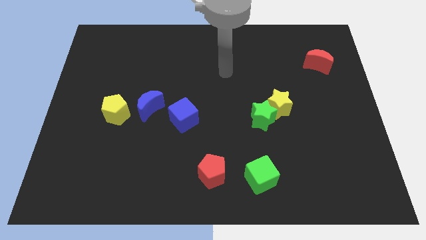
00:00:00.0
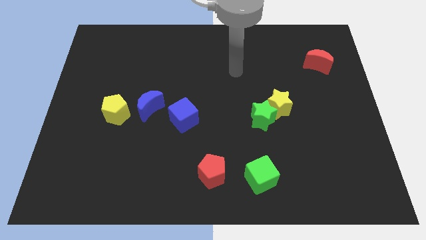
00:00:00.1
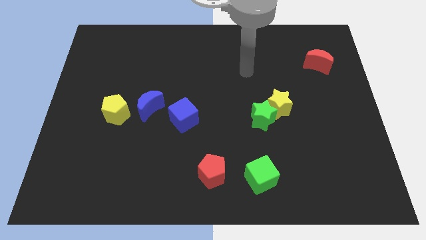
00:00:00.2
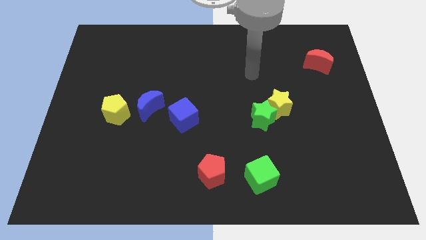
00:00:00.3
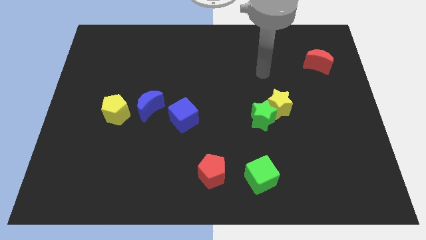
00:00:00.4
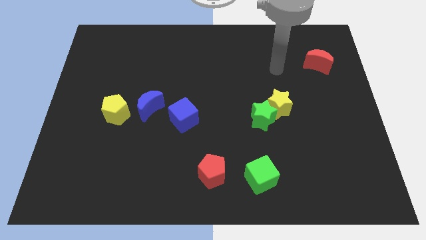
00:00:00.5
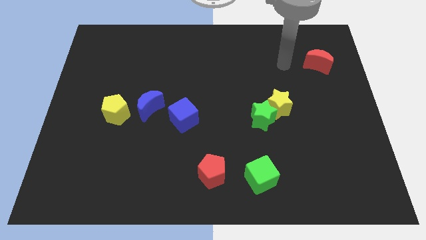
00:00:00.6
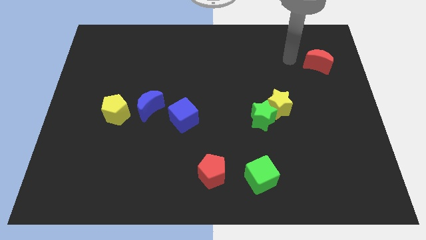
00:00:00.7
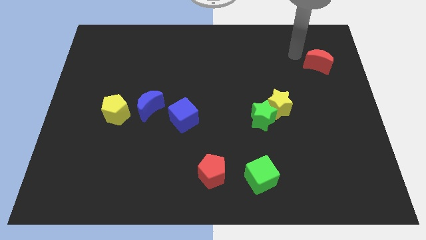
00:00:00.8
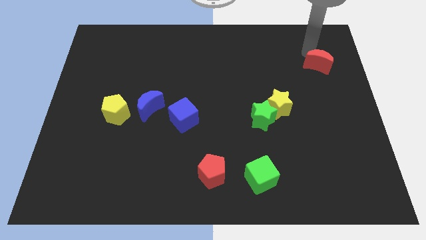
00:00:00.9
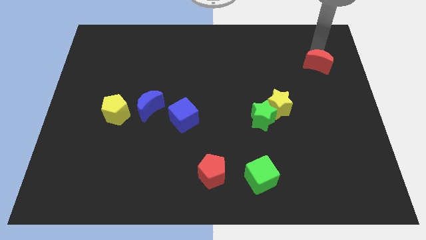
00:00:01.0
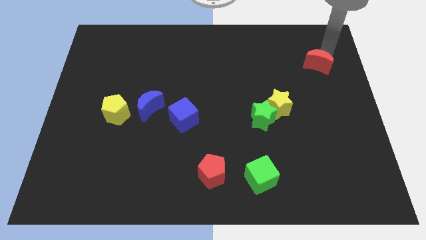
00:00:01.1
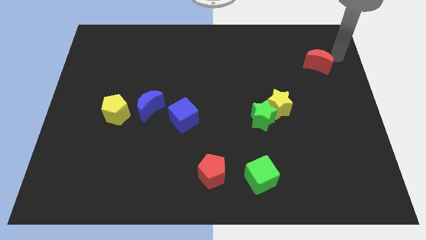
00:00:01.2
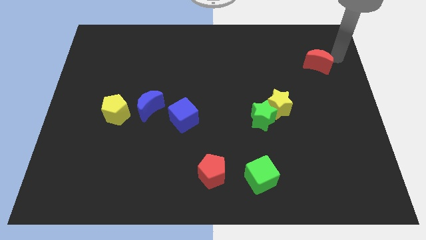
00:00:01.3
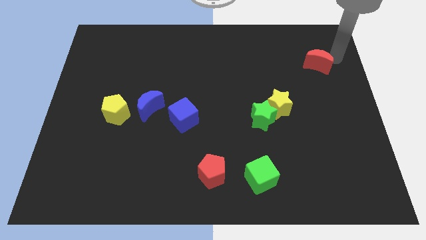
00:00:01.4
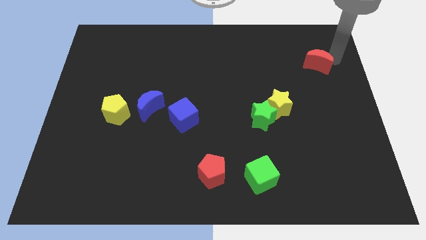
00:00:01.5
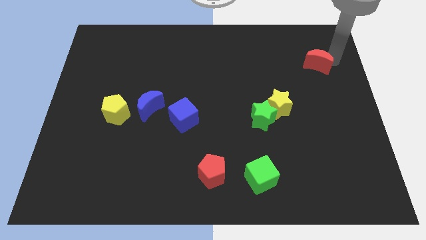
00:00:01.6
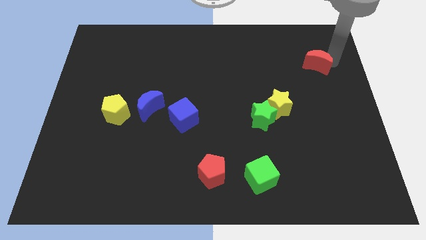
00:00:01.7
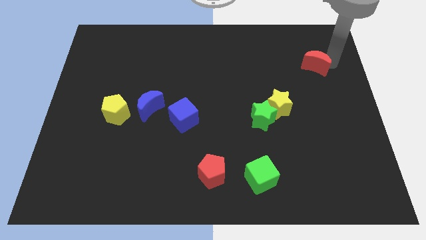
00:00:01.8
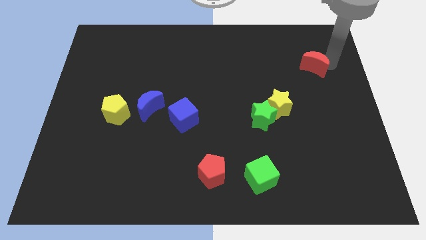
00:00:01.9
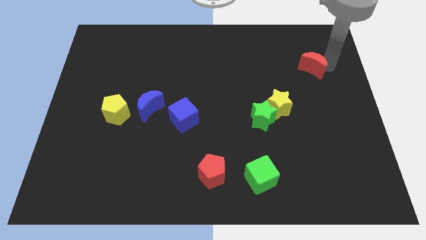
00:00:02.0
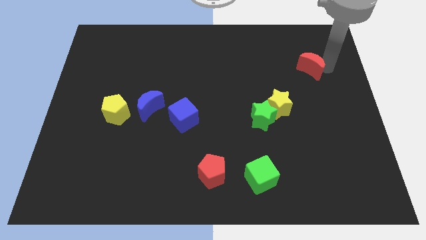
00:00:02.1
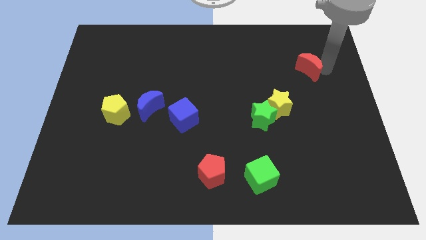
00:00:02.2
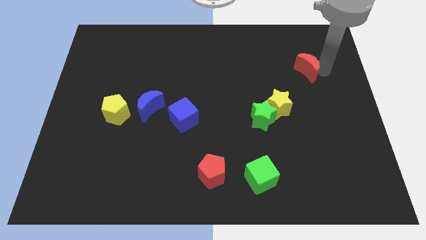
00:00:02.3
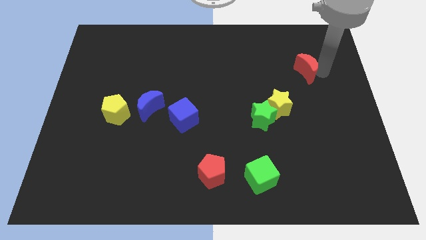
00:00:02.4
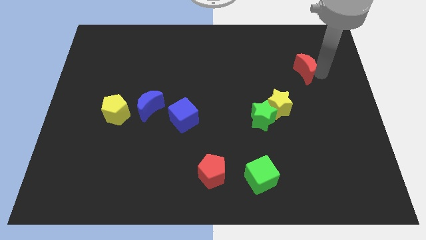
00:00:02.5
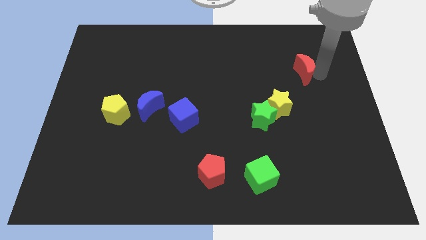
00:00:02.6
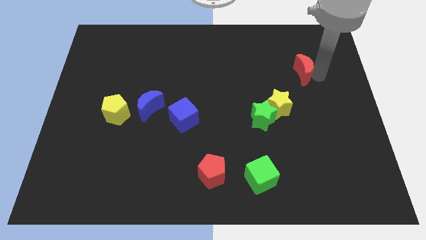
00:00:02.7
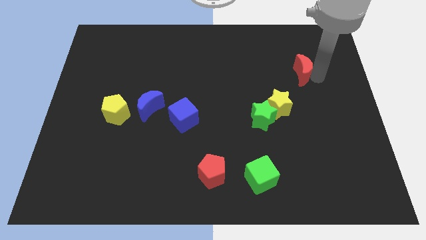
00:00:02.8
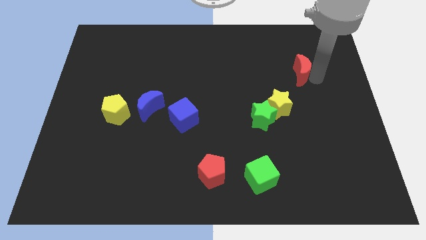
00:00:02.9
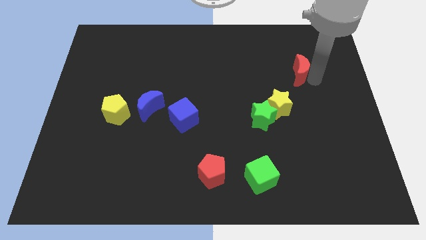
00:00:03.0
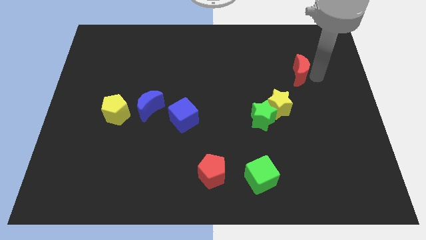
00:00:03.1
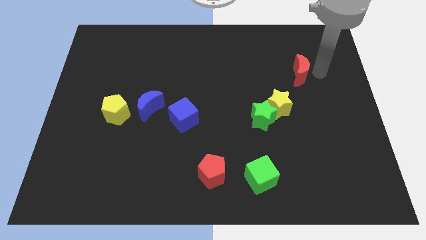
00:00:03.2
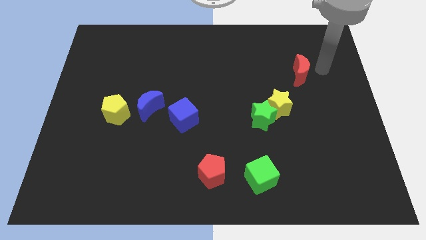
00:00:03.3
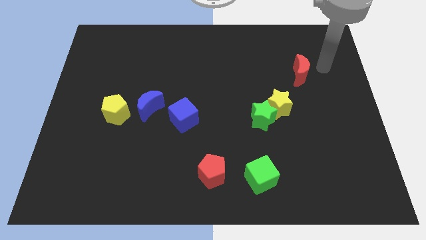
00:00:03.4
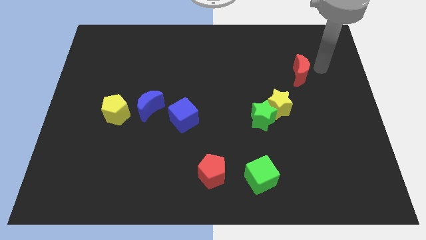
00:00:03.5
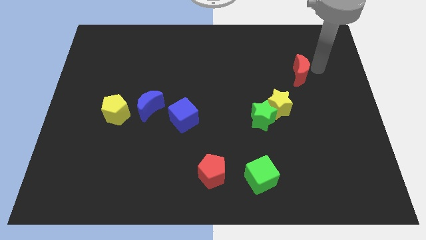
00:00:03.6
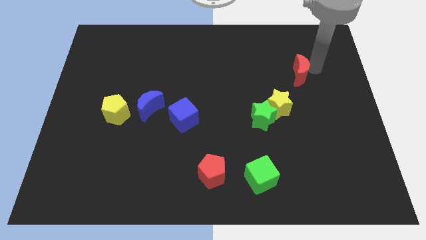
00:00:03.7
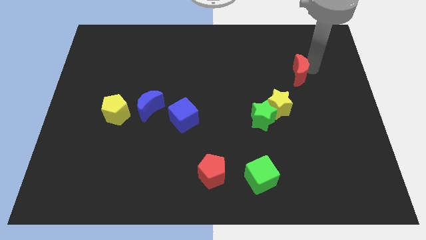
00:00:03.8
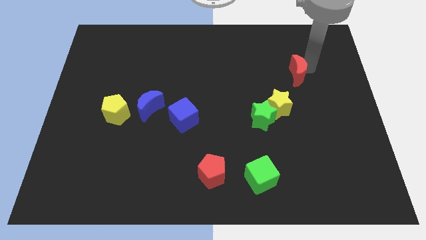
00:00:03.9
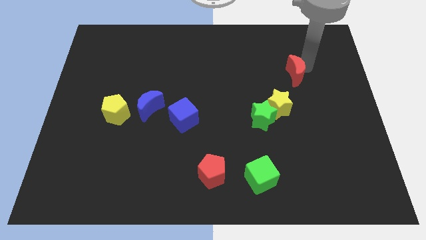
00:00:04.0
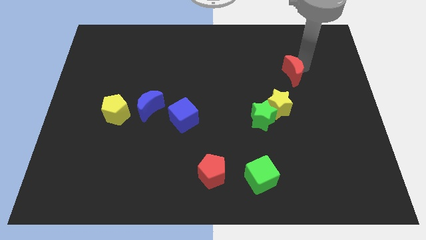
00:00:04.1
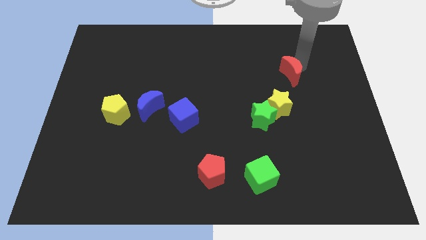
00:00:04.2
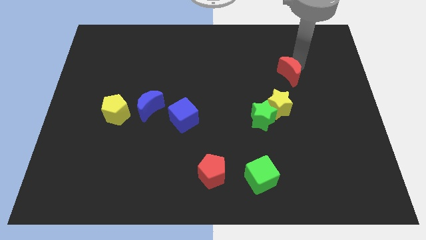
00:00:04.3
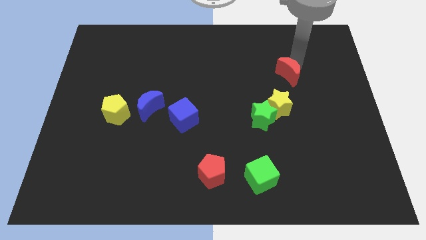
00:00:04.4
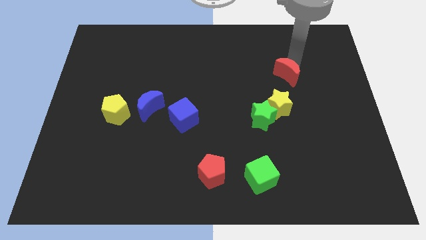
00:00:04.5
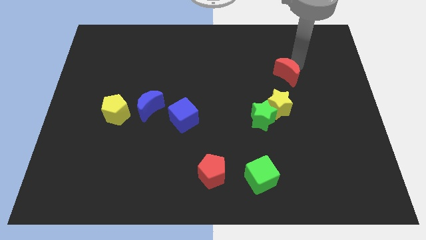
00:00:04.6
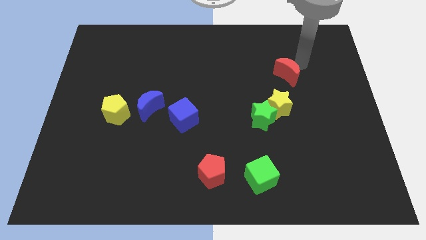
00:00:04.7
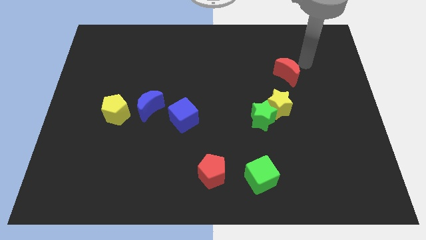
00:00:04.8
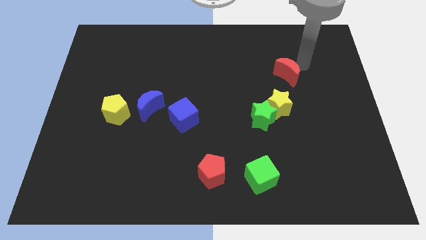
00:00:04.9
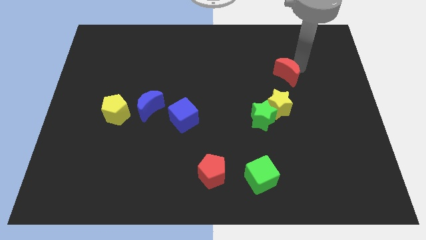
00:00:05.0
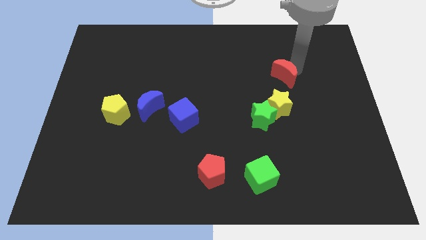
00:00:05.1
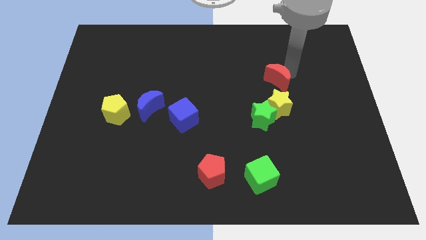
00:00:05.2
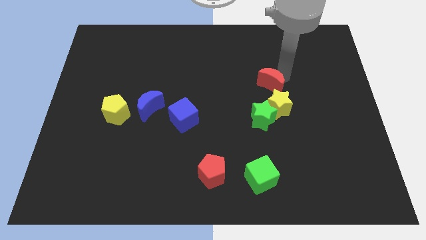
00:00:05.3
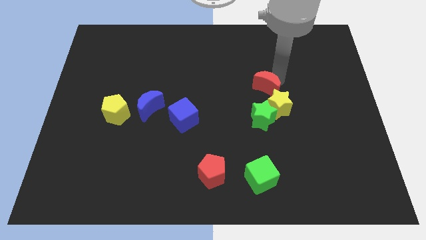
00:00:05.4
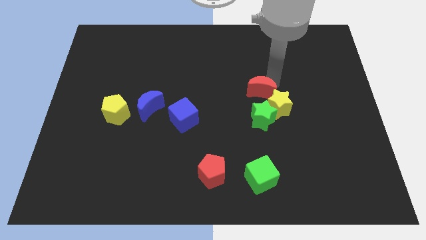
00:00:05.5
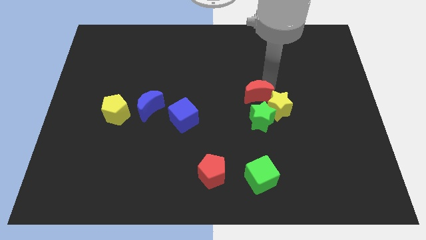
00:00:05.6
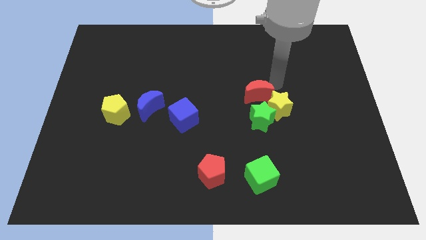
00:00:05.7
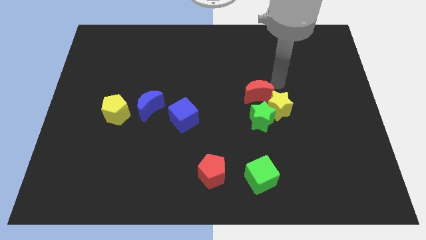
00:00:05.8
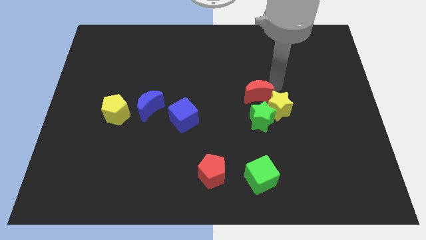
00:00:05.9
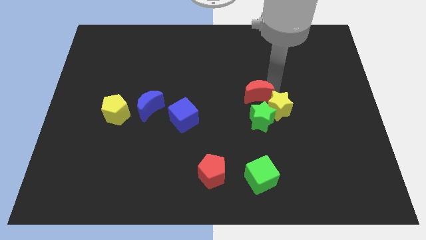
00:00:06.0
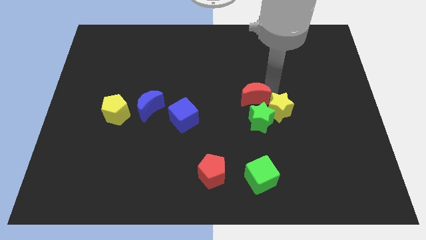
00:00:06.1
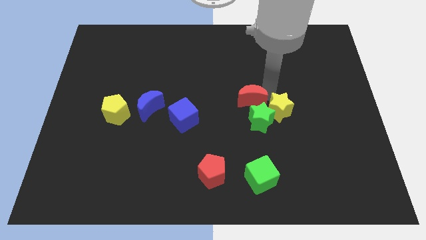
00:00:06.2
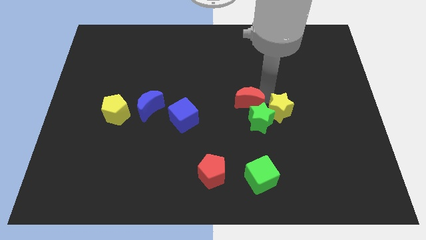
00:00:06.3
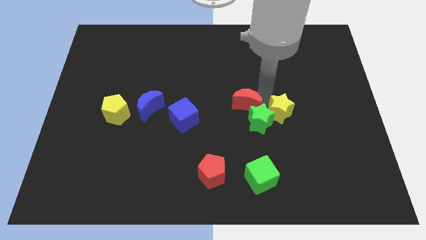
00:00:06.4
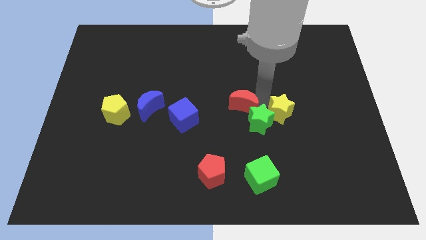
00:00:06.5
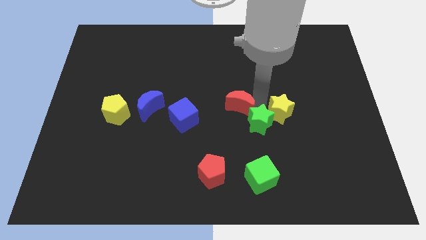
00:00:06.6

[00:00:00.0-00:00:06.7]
put the red moon to the left of the green star

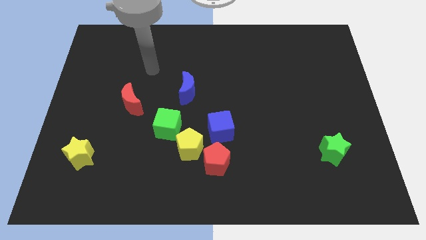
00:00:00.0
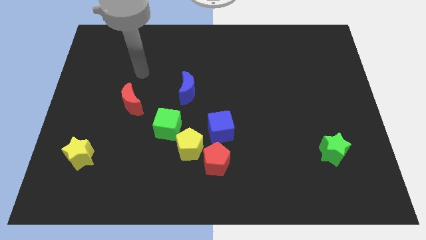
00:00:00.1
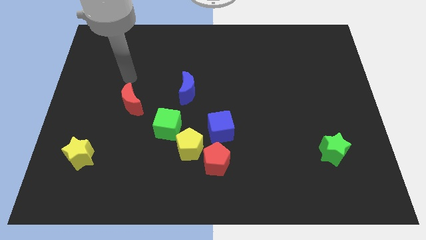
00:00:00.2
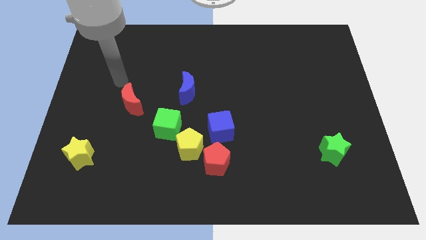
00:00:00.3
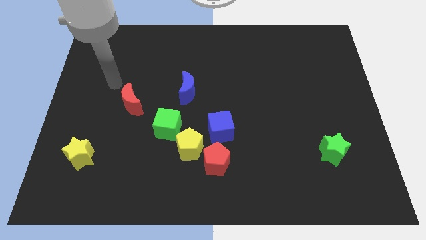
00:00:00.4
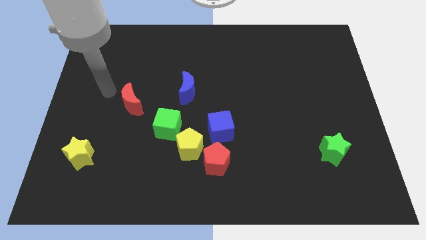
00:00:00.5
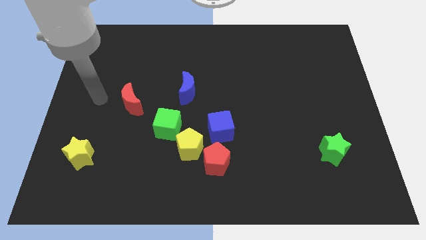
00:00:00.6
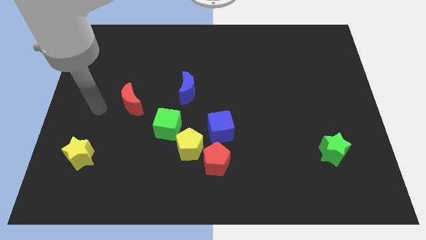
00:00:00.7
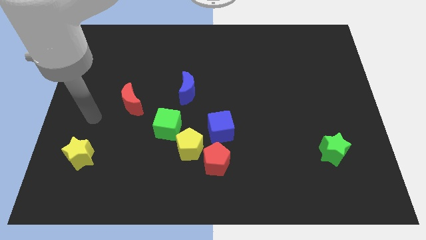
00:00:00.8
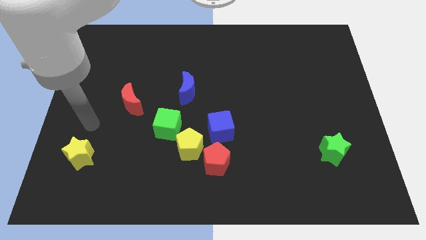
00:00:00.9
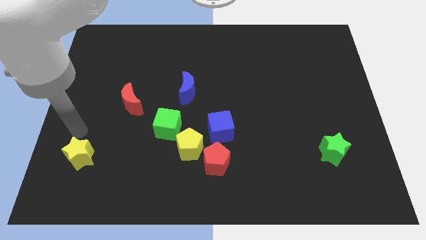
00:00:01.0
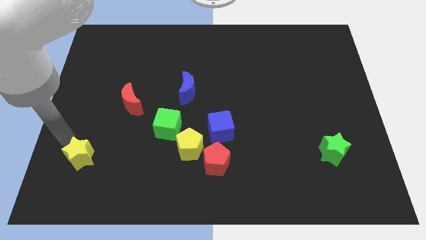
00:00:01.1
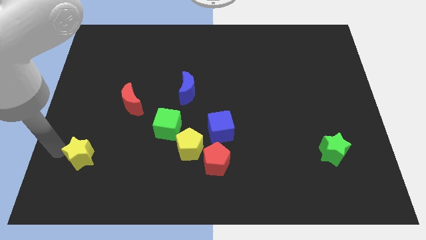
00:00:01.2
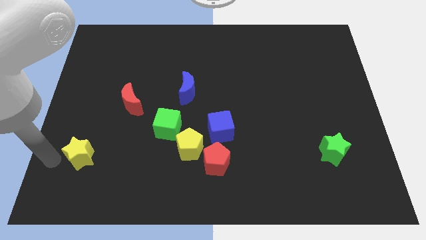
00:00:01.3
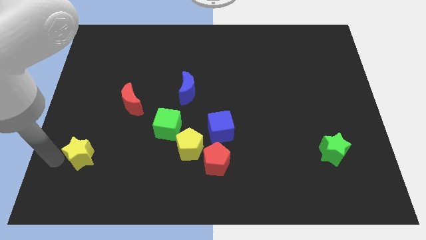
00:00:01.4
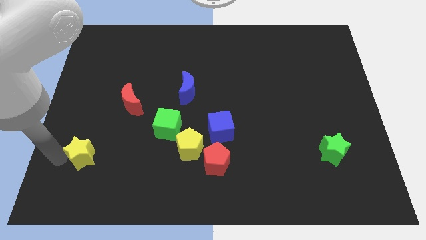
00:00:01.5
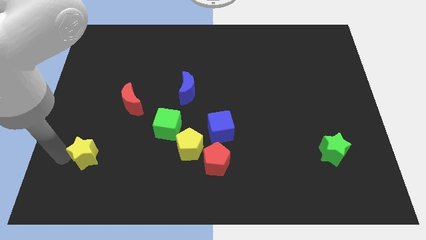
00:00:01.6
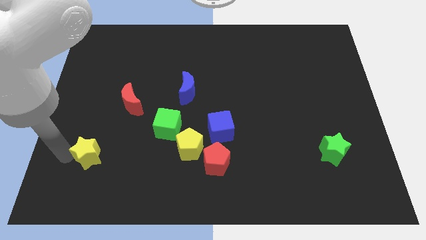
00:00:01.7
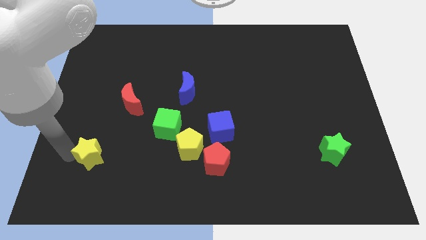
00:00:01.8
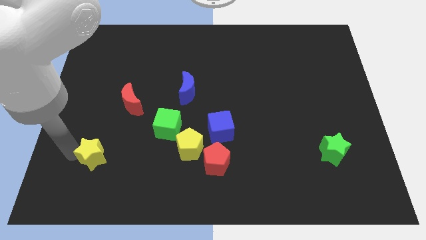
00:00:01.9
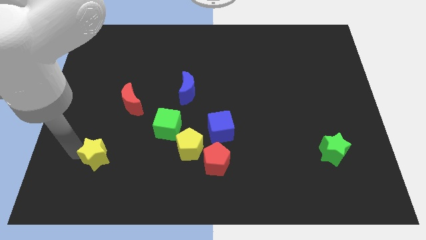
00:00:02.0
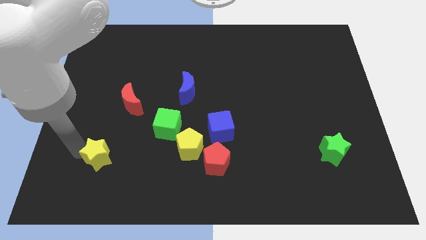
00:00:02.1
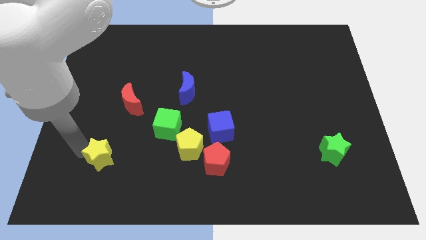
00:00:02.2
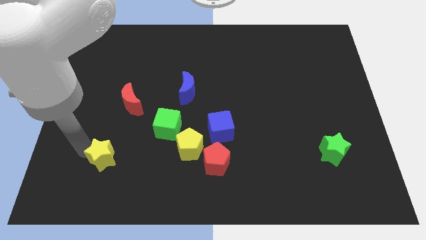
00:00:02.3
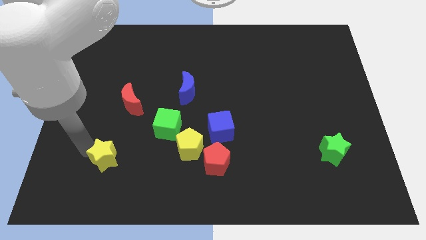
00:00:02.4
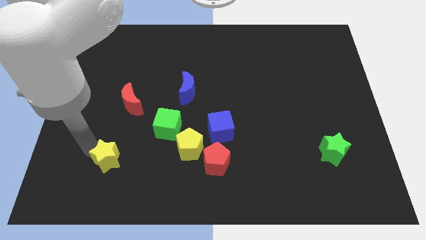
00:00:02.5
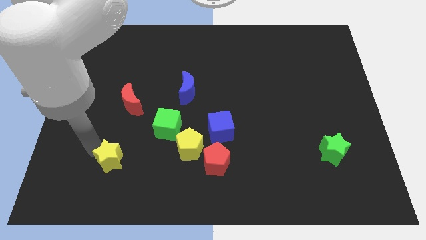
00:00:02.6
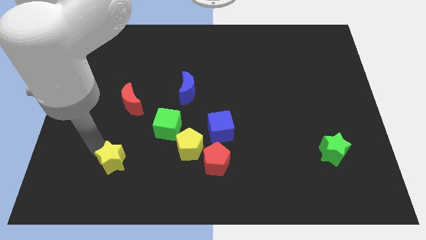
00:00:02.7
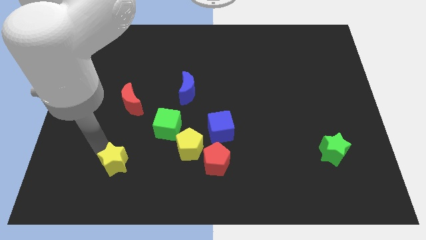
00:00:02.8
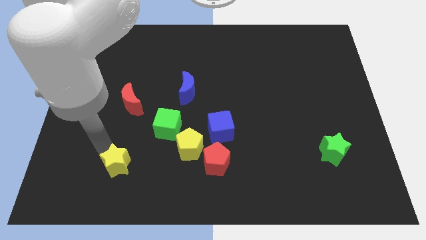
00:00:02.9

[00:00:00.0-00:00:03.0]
slide the yellow star left of the yellow pentagon
